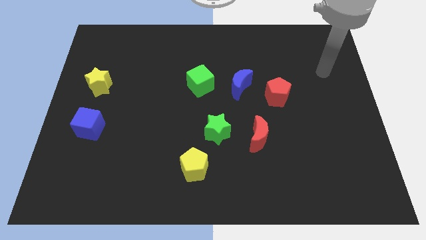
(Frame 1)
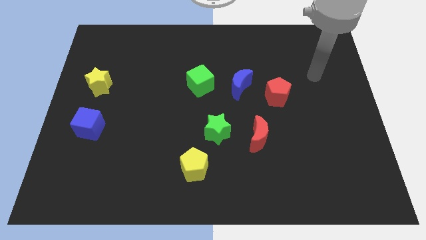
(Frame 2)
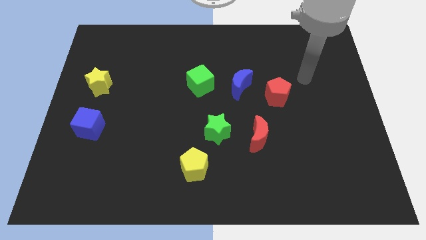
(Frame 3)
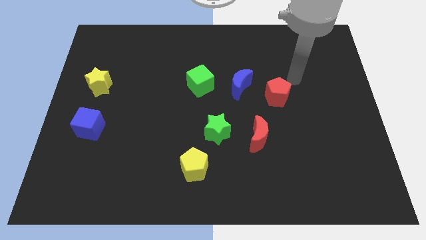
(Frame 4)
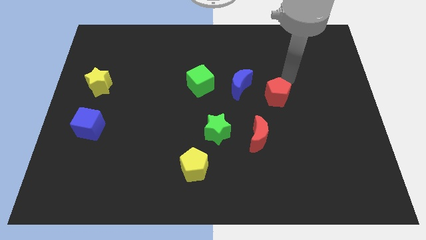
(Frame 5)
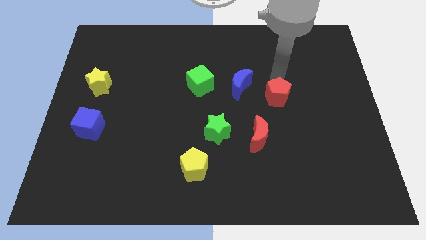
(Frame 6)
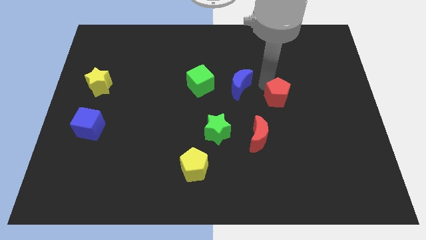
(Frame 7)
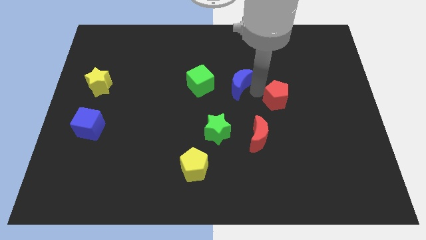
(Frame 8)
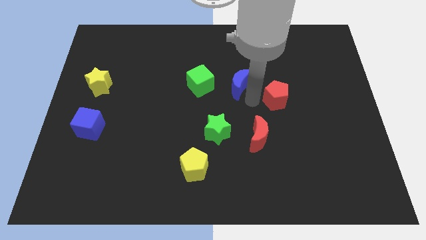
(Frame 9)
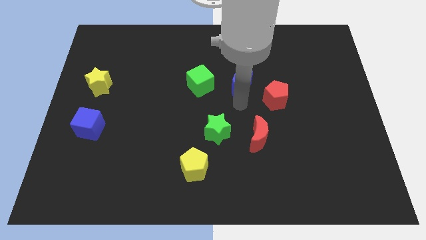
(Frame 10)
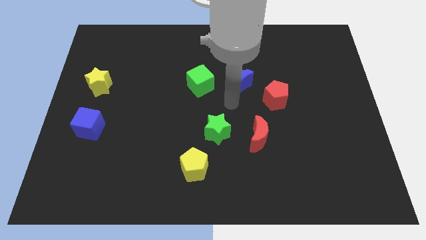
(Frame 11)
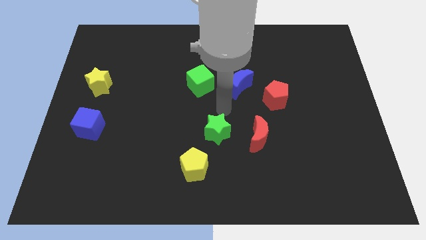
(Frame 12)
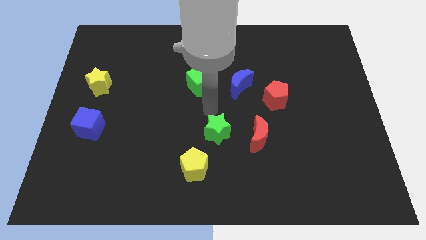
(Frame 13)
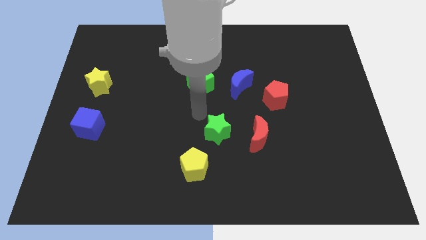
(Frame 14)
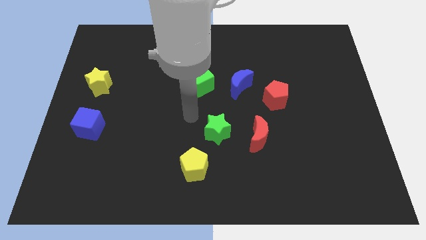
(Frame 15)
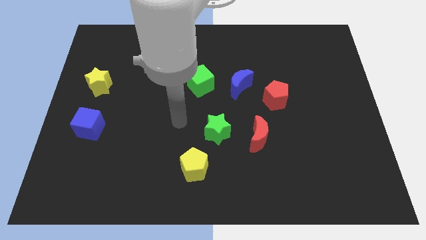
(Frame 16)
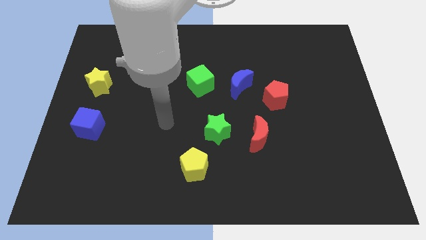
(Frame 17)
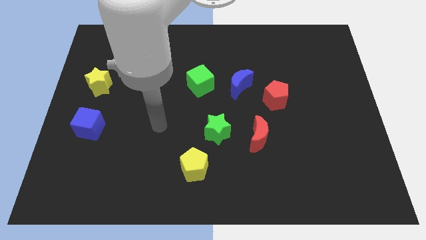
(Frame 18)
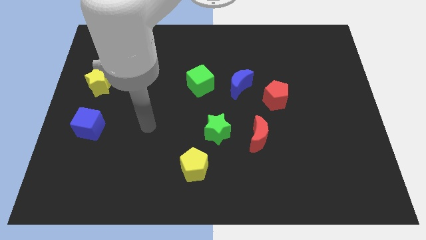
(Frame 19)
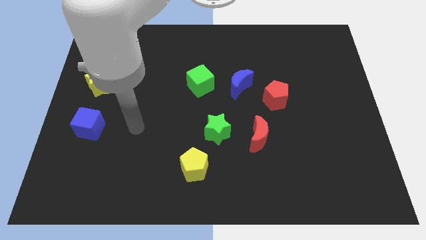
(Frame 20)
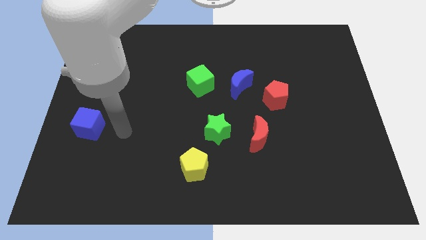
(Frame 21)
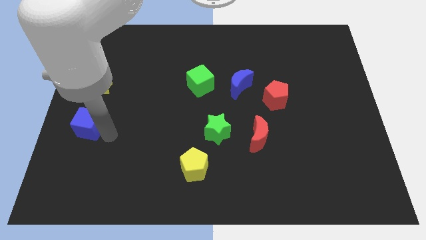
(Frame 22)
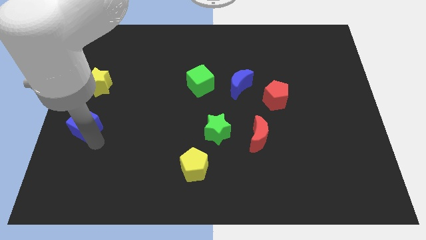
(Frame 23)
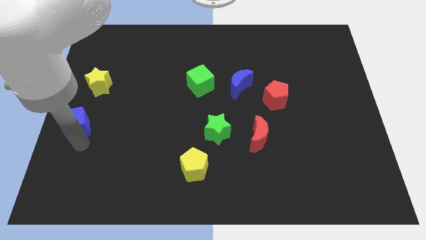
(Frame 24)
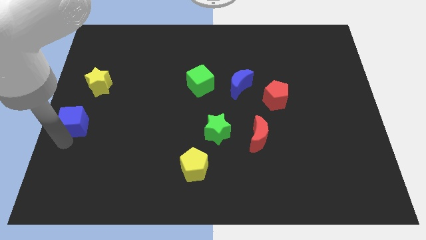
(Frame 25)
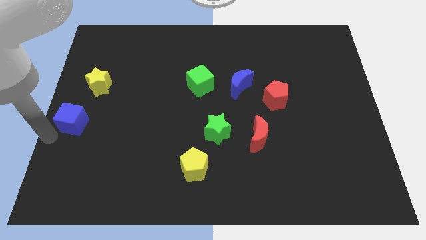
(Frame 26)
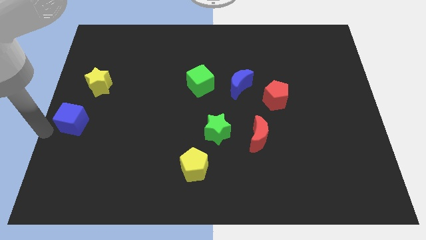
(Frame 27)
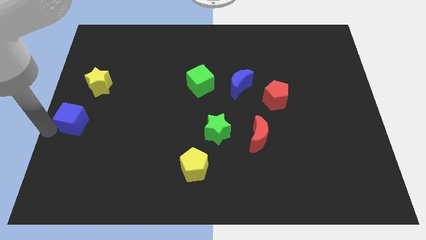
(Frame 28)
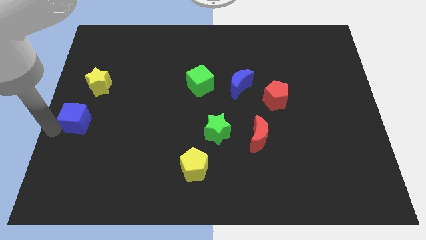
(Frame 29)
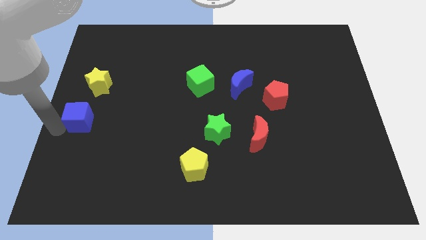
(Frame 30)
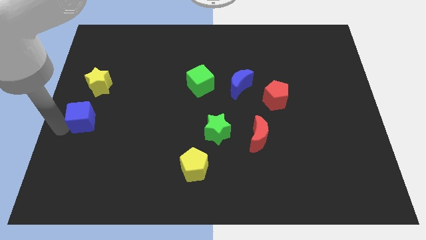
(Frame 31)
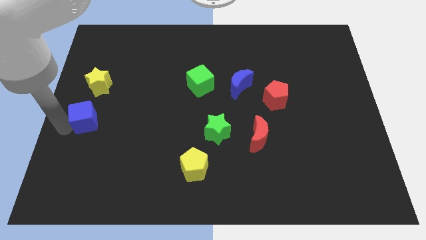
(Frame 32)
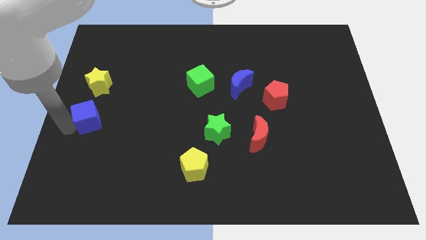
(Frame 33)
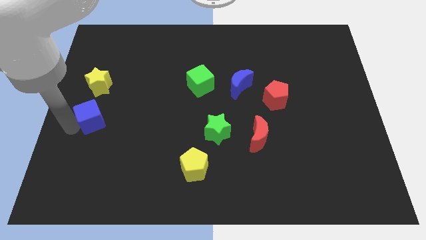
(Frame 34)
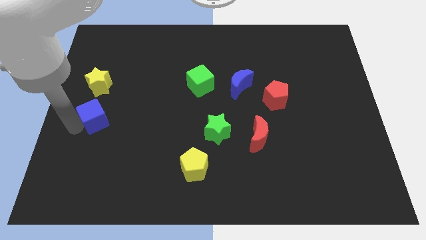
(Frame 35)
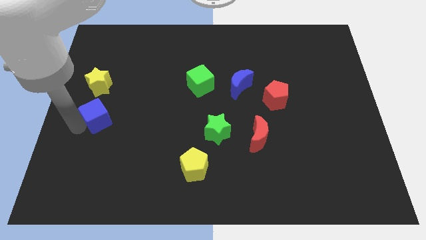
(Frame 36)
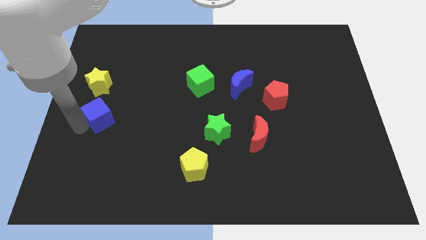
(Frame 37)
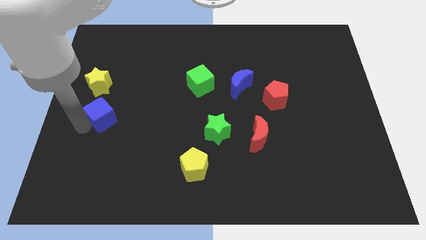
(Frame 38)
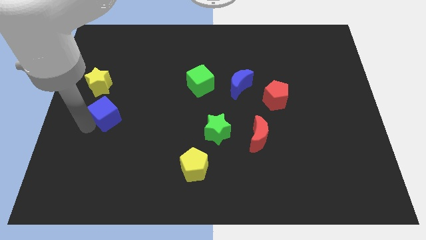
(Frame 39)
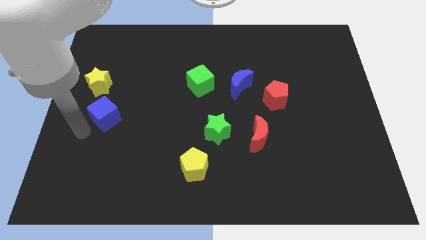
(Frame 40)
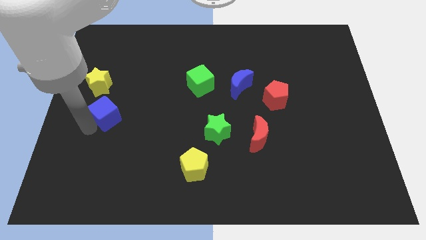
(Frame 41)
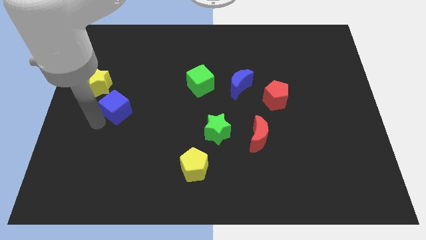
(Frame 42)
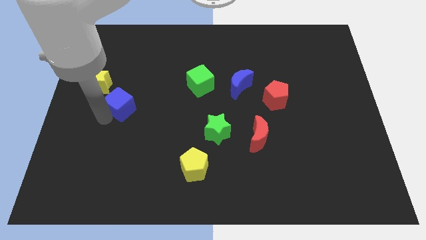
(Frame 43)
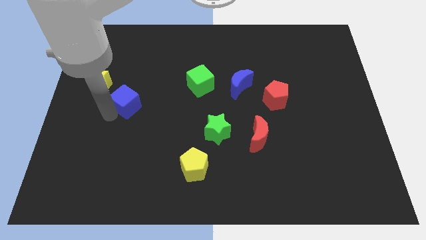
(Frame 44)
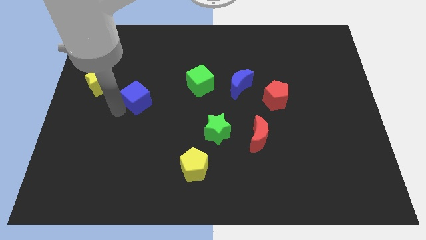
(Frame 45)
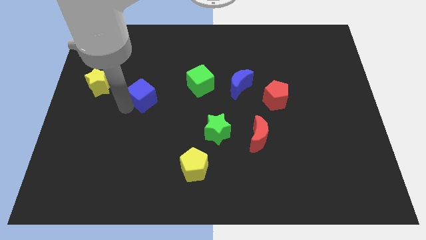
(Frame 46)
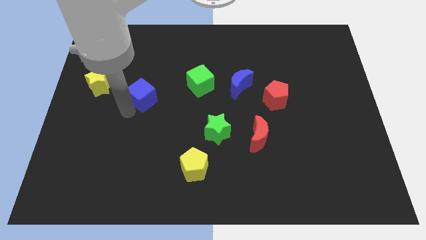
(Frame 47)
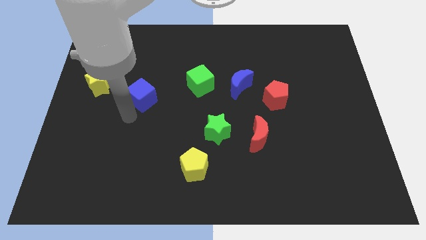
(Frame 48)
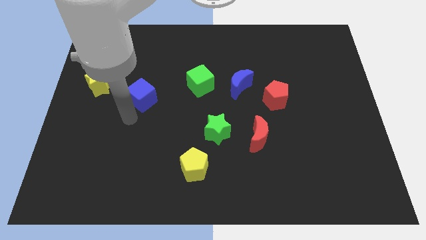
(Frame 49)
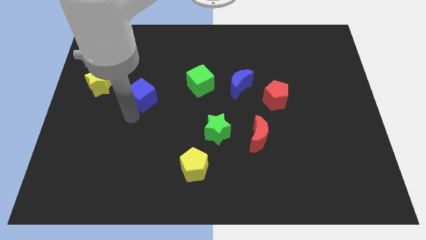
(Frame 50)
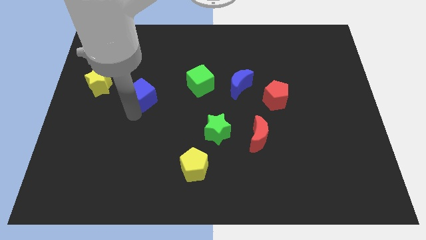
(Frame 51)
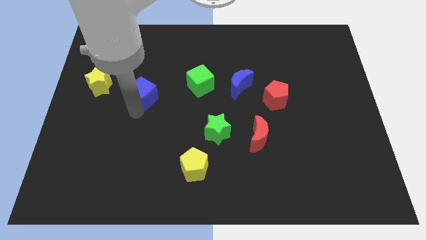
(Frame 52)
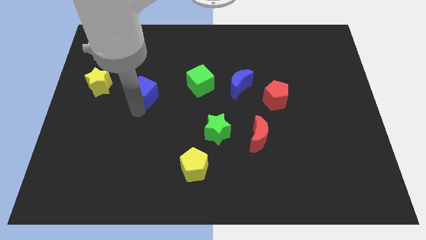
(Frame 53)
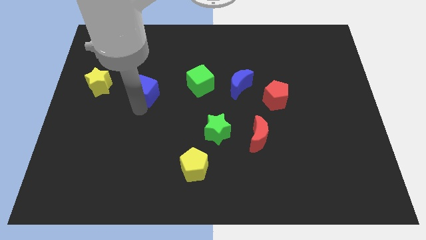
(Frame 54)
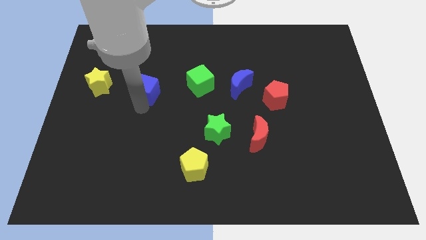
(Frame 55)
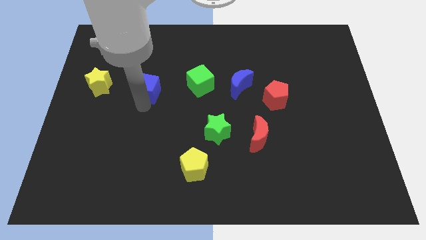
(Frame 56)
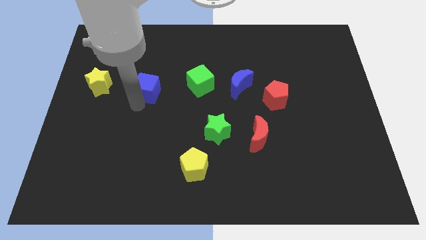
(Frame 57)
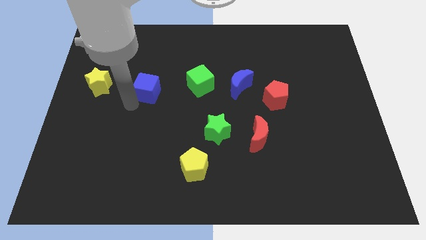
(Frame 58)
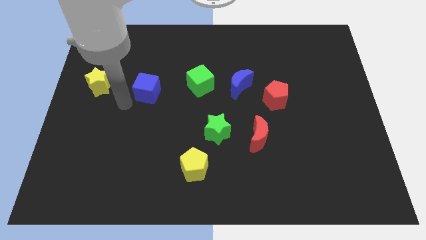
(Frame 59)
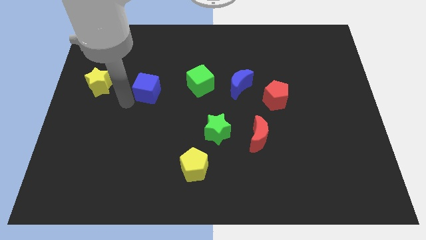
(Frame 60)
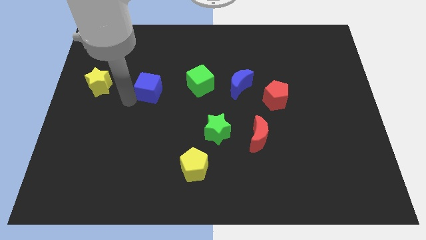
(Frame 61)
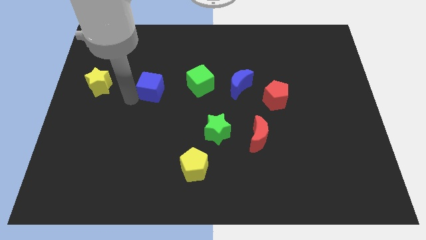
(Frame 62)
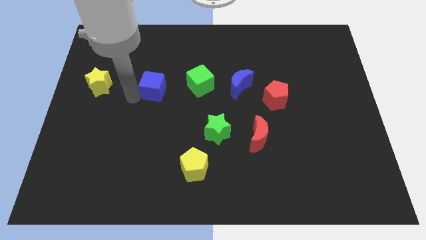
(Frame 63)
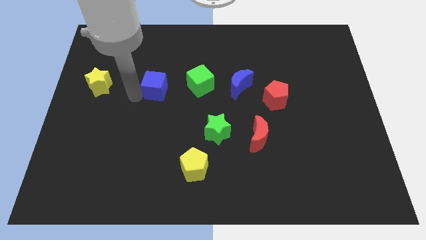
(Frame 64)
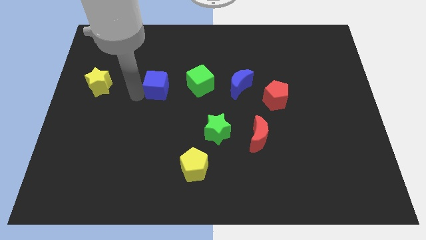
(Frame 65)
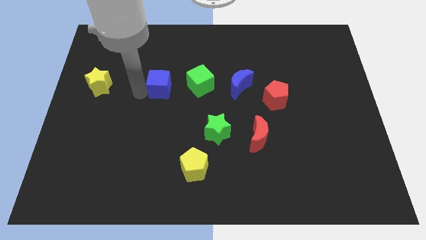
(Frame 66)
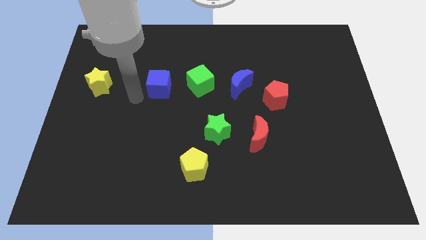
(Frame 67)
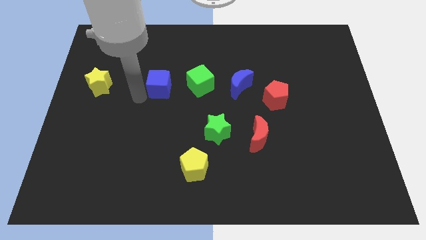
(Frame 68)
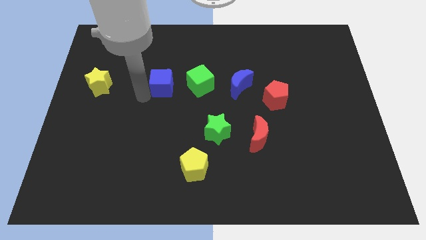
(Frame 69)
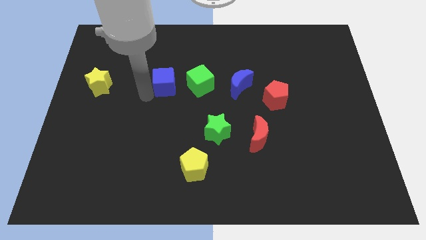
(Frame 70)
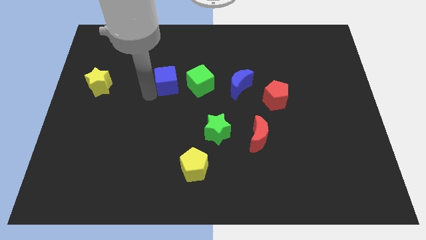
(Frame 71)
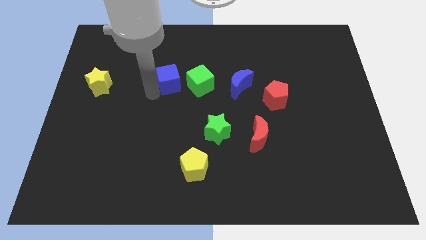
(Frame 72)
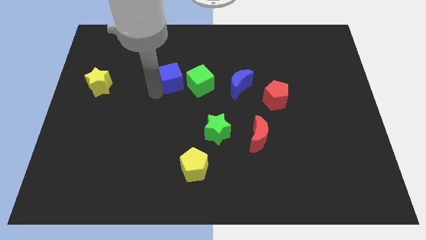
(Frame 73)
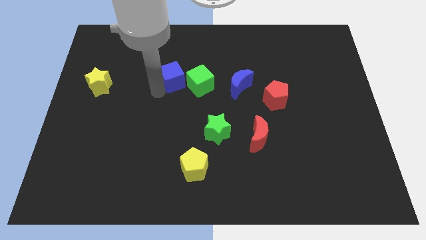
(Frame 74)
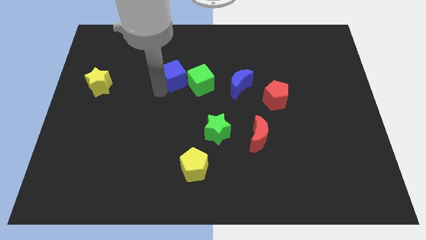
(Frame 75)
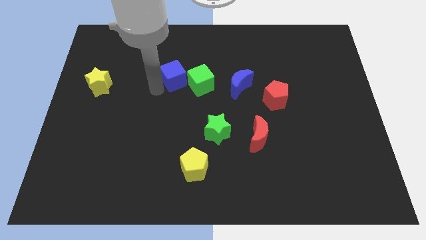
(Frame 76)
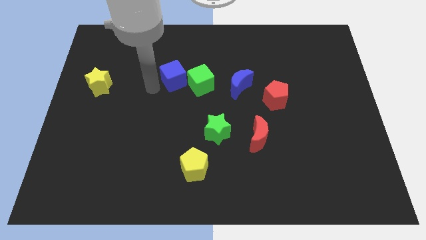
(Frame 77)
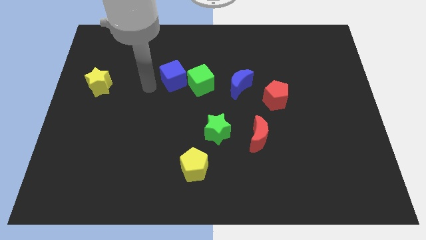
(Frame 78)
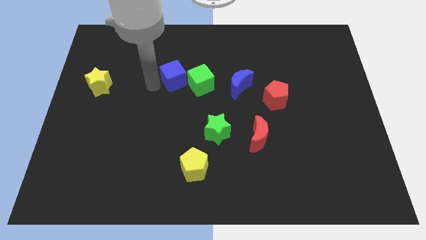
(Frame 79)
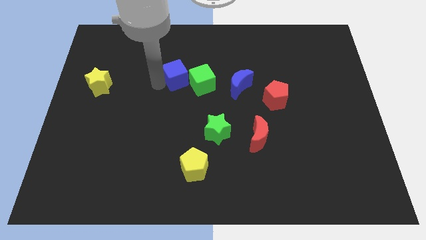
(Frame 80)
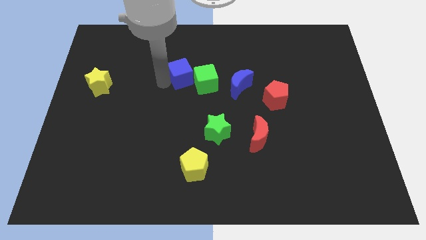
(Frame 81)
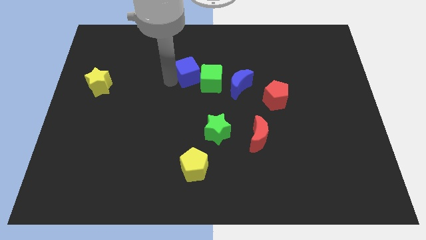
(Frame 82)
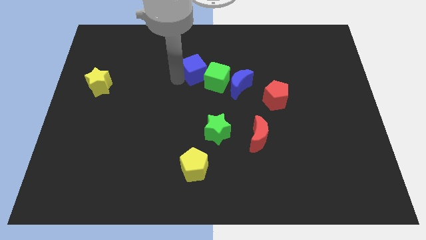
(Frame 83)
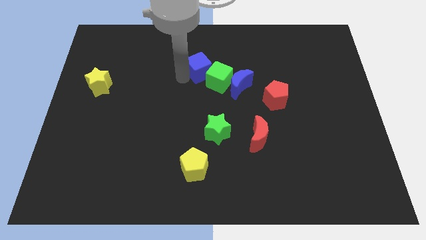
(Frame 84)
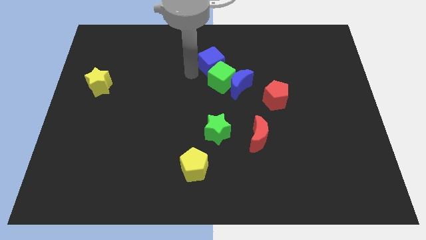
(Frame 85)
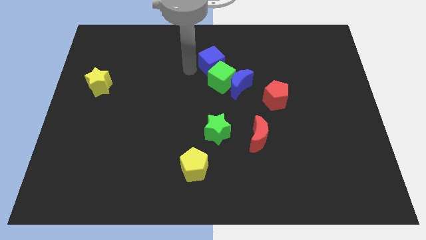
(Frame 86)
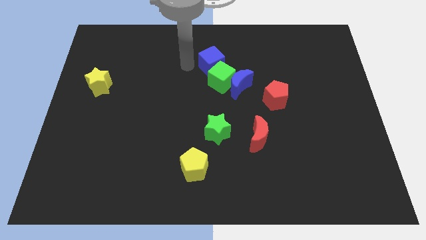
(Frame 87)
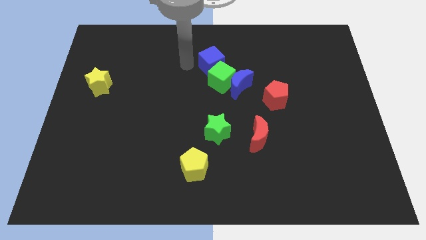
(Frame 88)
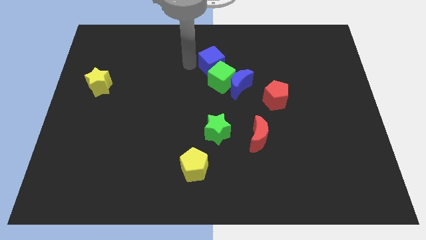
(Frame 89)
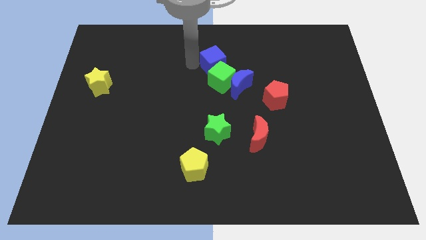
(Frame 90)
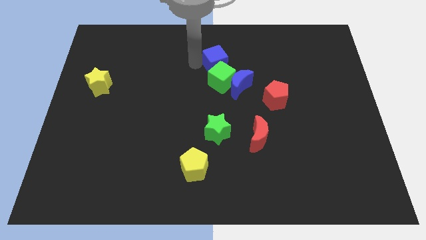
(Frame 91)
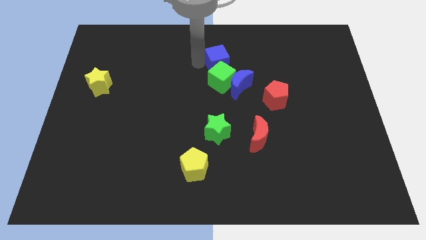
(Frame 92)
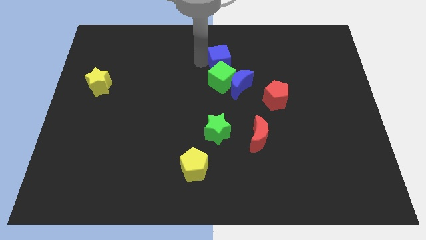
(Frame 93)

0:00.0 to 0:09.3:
push the blue cube to the top right side of the green cube
